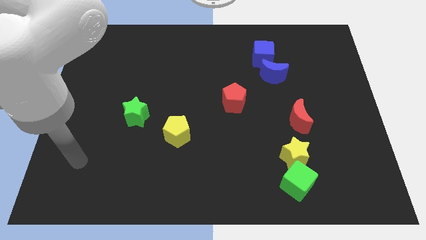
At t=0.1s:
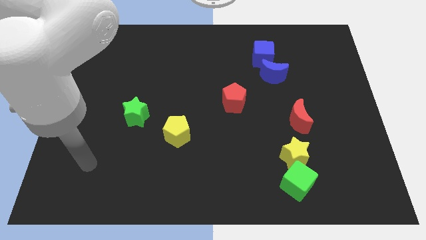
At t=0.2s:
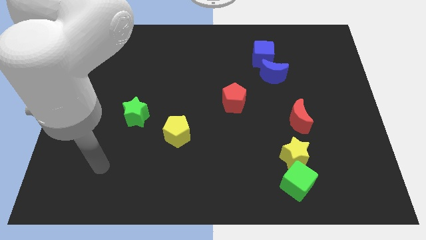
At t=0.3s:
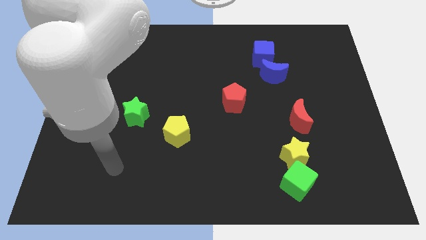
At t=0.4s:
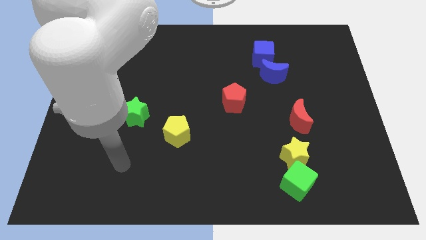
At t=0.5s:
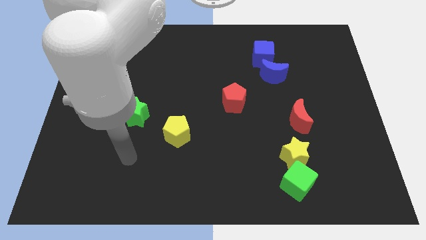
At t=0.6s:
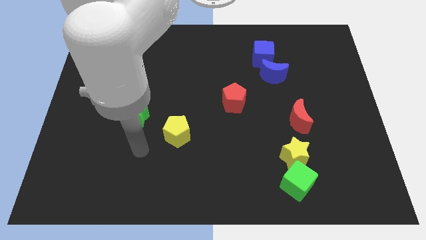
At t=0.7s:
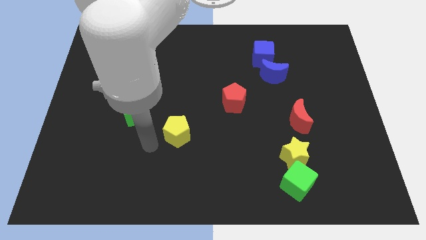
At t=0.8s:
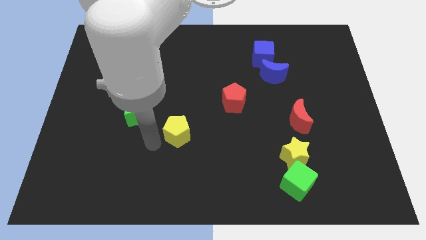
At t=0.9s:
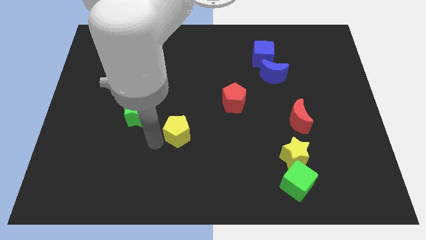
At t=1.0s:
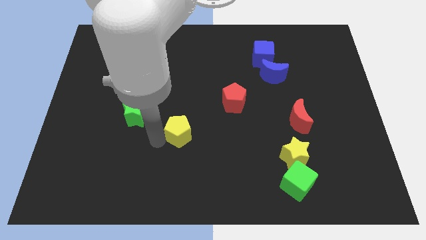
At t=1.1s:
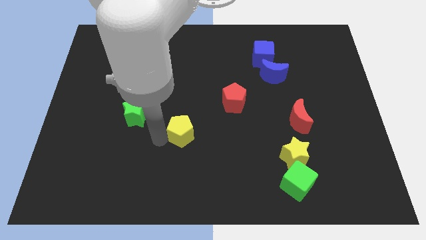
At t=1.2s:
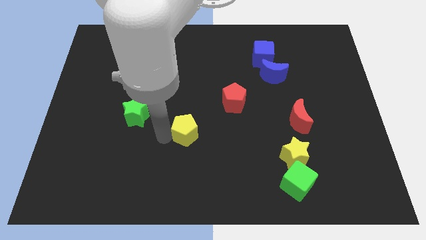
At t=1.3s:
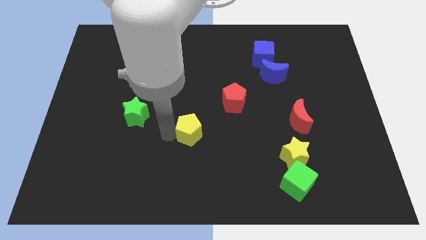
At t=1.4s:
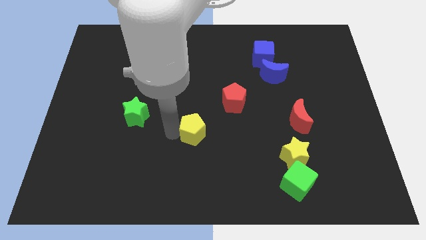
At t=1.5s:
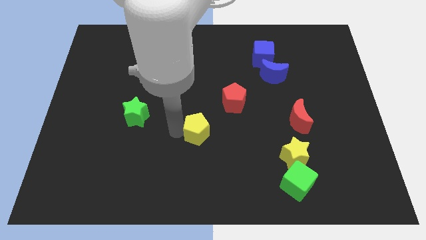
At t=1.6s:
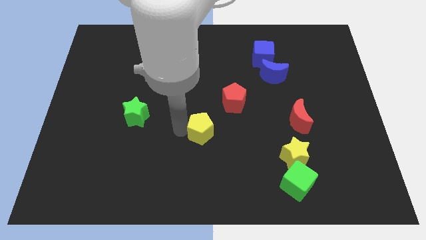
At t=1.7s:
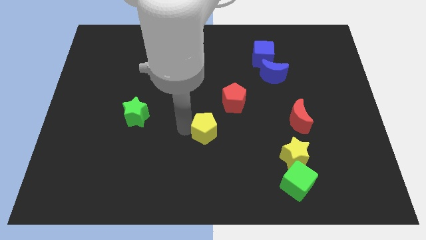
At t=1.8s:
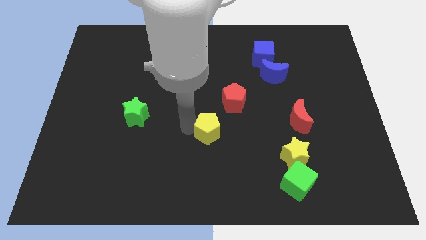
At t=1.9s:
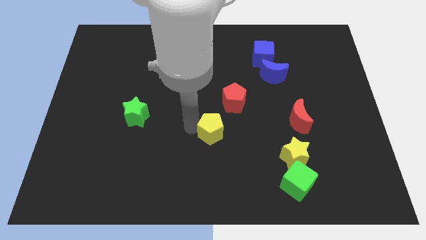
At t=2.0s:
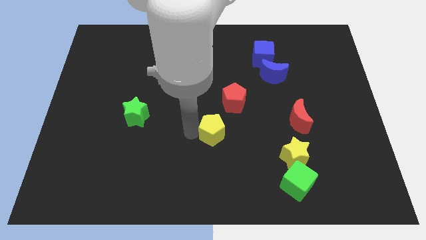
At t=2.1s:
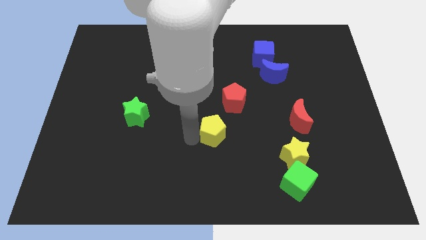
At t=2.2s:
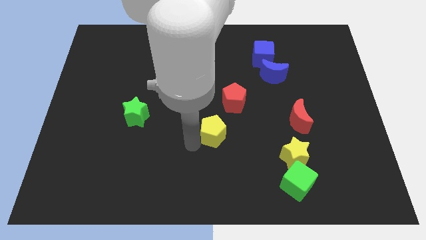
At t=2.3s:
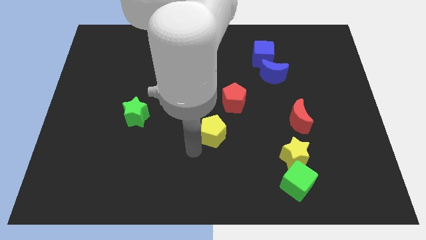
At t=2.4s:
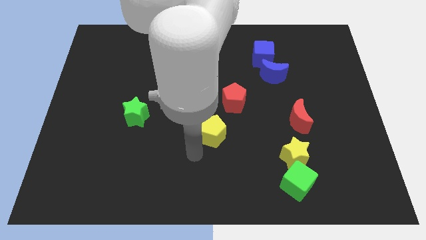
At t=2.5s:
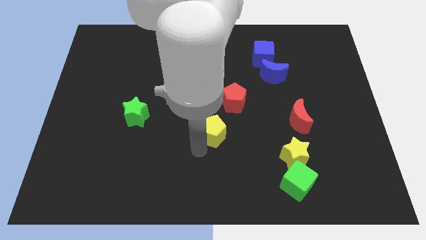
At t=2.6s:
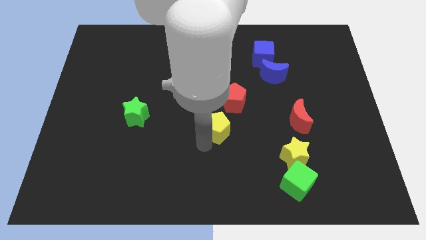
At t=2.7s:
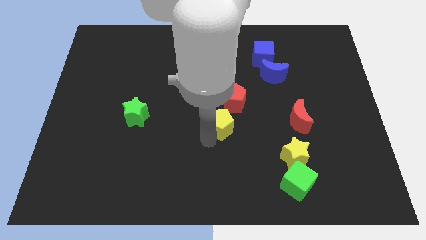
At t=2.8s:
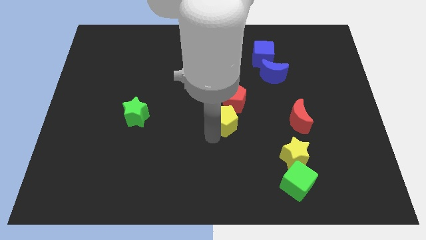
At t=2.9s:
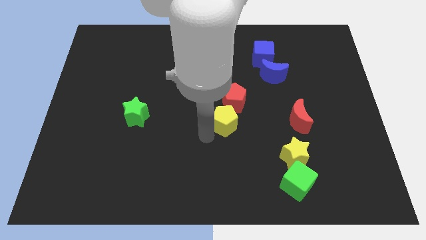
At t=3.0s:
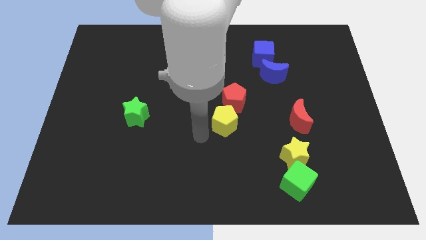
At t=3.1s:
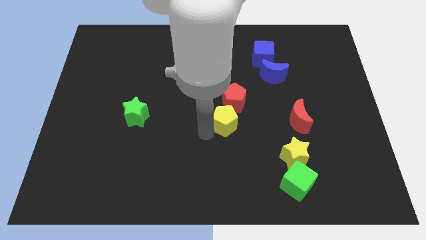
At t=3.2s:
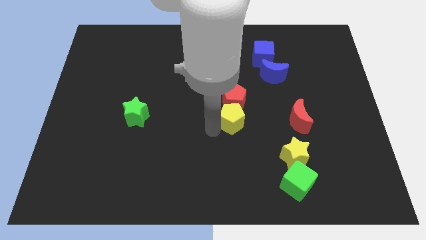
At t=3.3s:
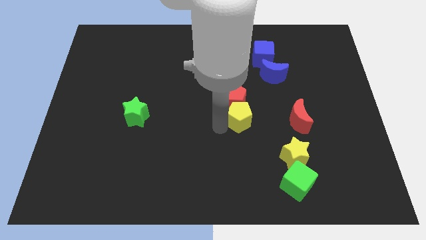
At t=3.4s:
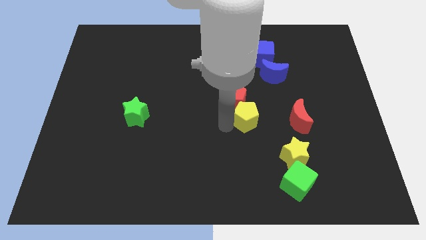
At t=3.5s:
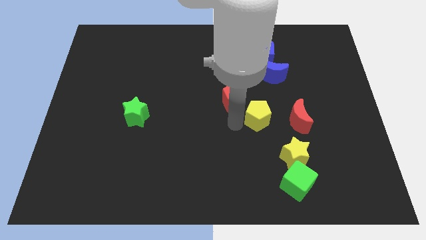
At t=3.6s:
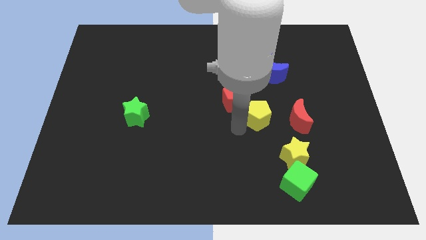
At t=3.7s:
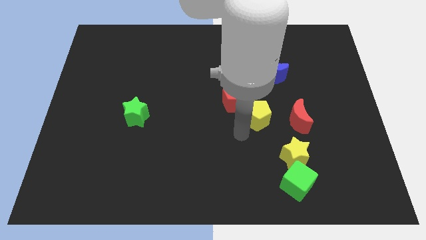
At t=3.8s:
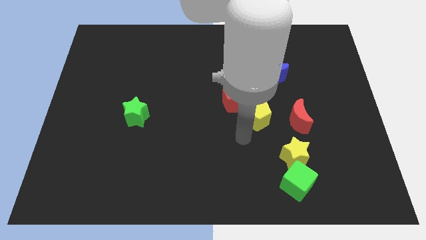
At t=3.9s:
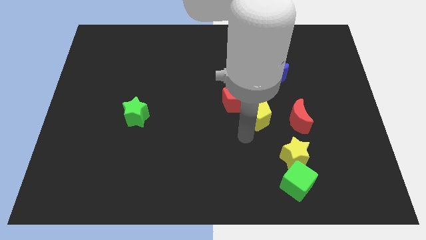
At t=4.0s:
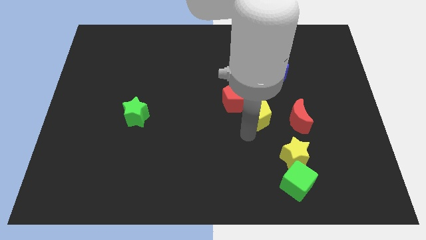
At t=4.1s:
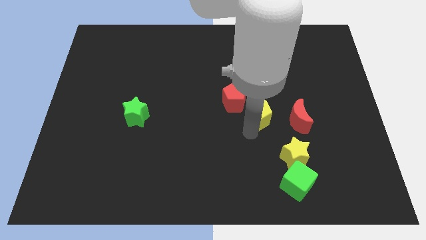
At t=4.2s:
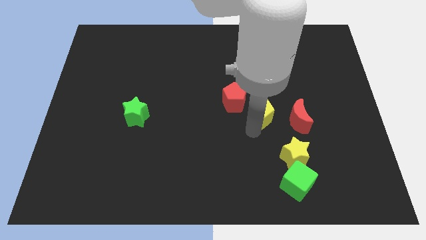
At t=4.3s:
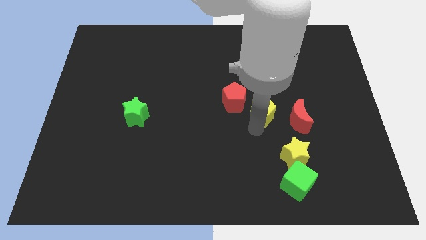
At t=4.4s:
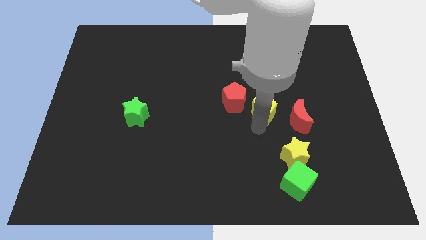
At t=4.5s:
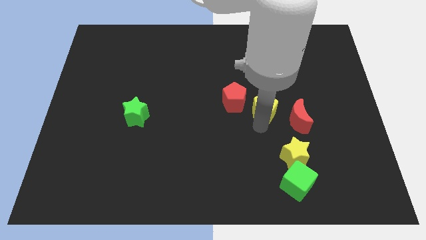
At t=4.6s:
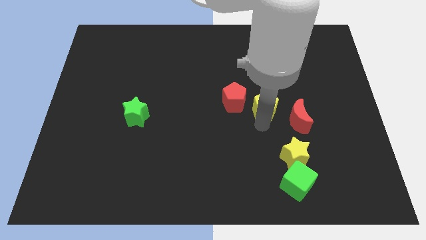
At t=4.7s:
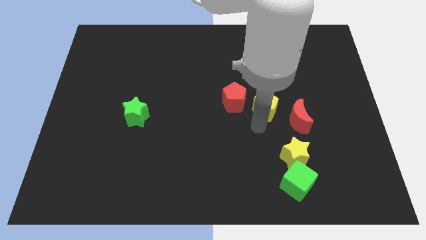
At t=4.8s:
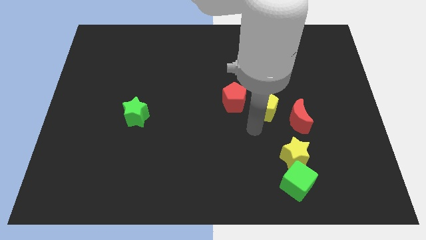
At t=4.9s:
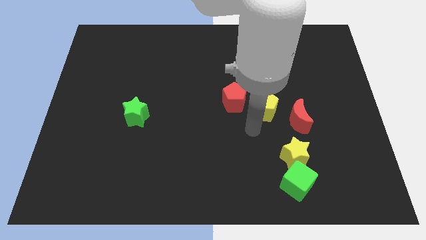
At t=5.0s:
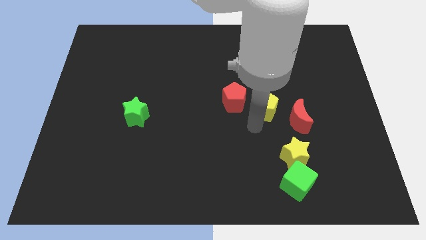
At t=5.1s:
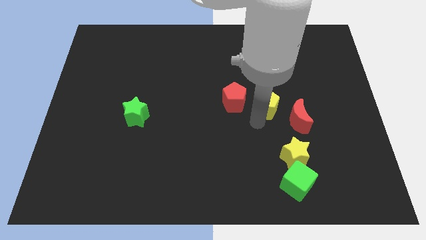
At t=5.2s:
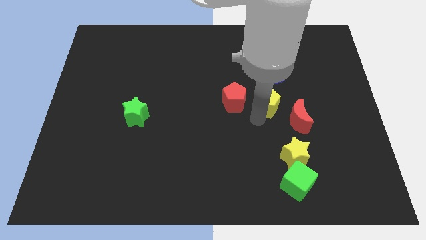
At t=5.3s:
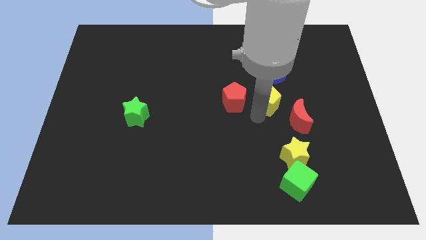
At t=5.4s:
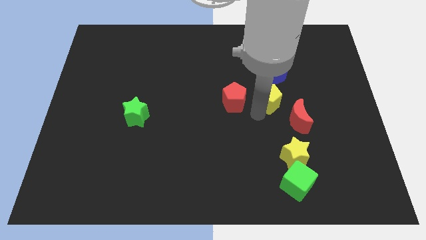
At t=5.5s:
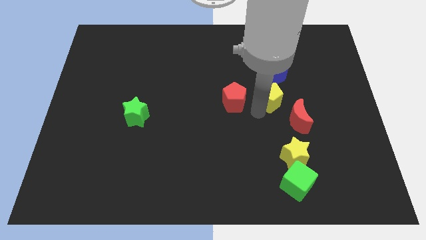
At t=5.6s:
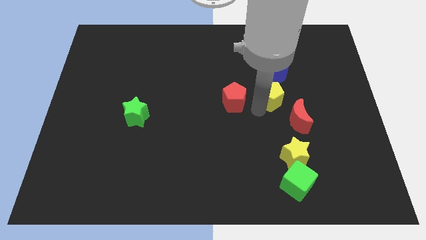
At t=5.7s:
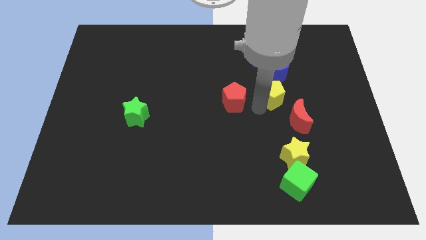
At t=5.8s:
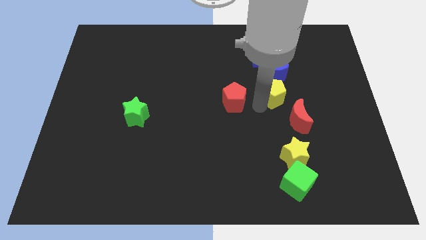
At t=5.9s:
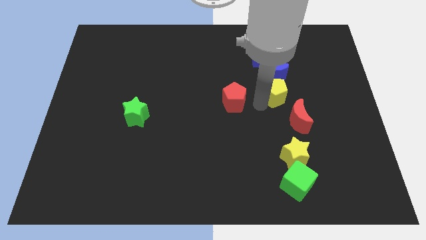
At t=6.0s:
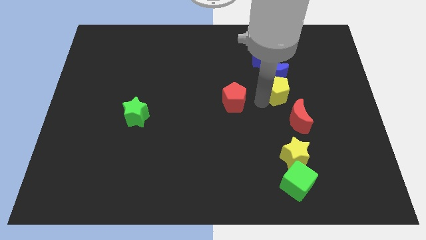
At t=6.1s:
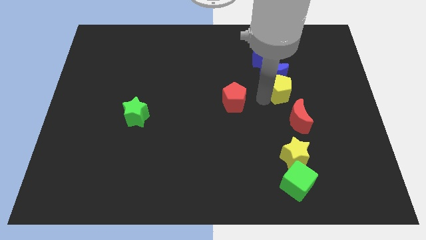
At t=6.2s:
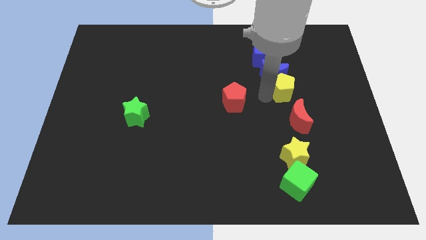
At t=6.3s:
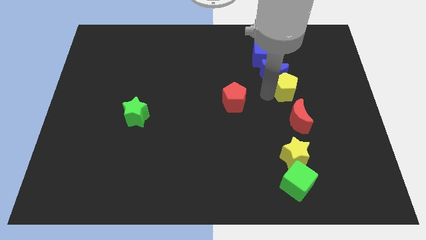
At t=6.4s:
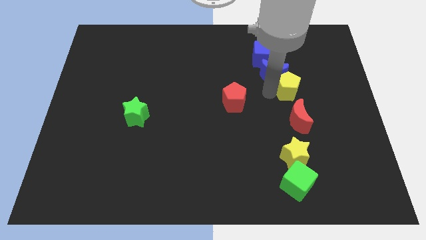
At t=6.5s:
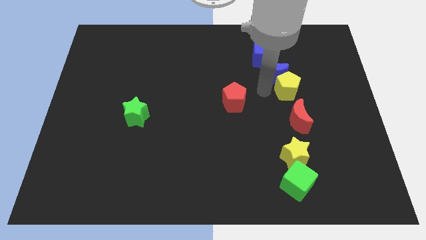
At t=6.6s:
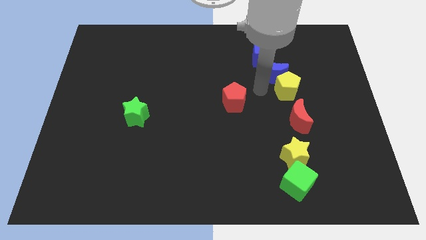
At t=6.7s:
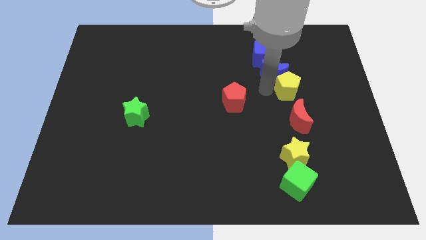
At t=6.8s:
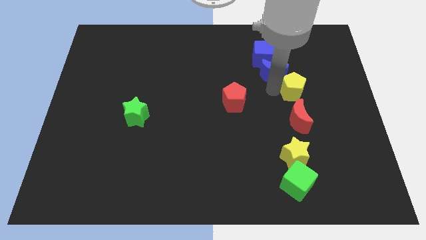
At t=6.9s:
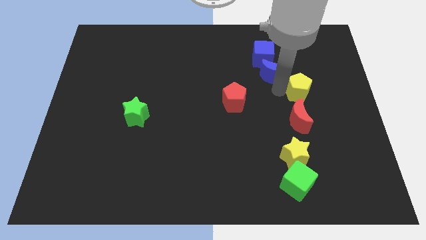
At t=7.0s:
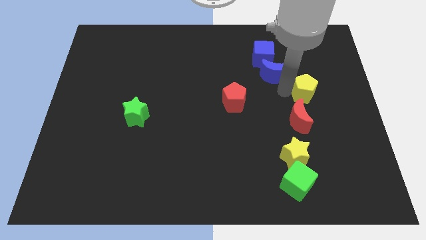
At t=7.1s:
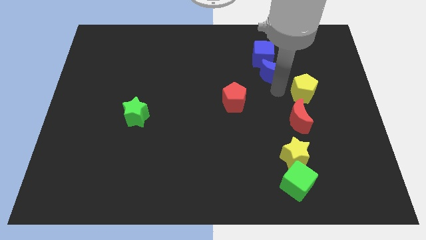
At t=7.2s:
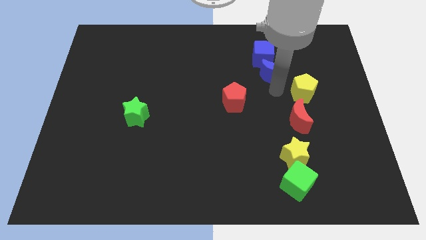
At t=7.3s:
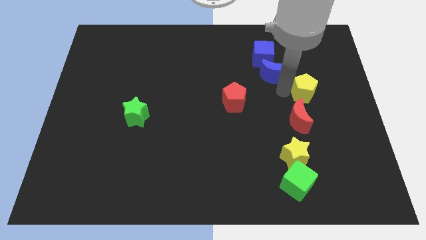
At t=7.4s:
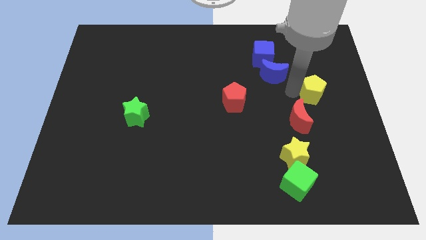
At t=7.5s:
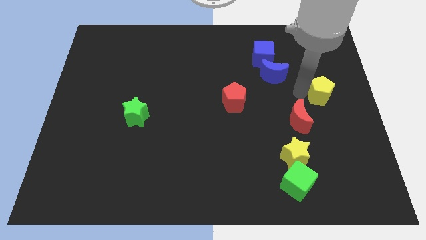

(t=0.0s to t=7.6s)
push the yellow pentagon to the center right
